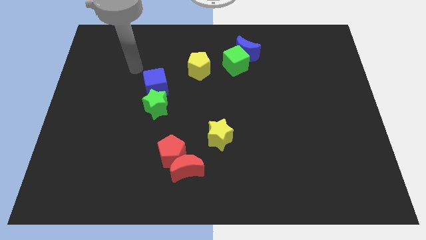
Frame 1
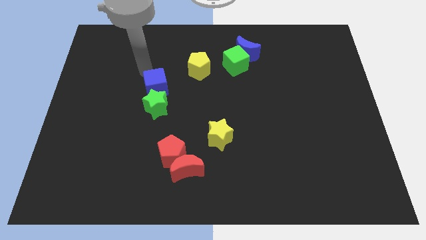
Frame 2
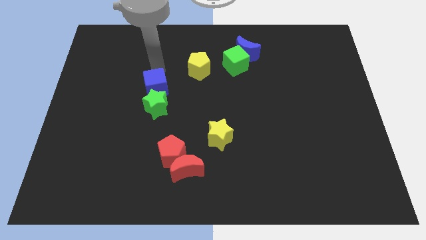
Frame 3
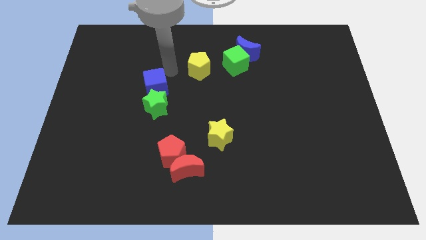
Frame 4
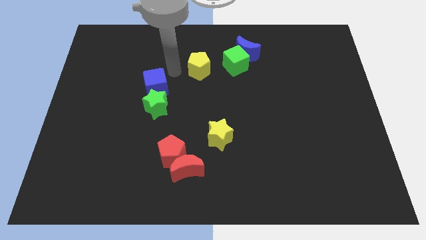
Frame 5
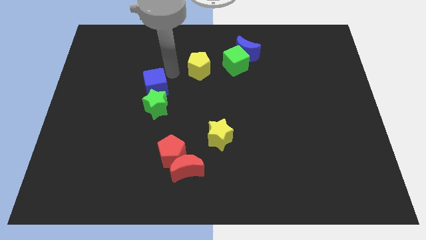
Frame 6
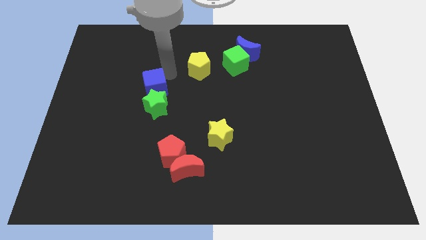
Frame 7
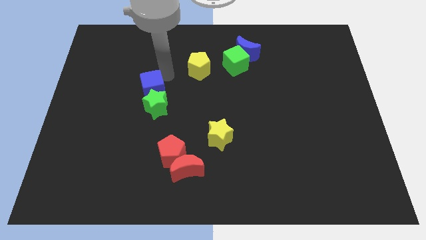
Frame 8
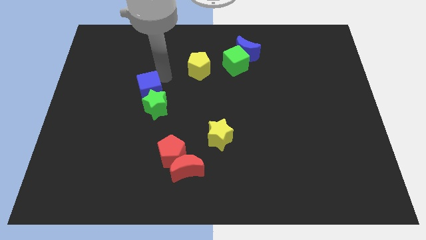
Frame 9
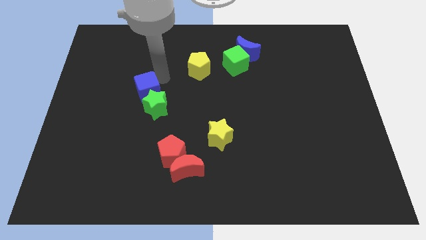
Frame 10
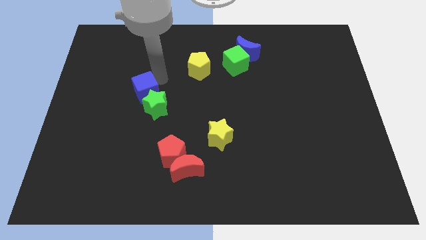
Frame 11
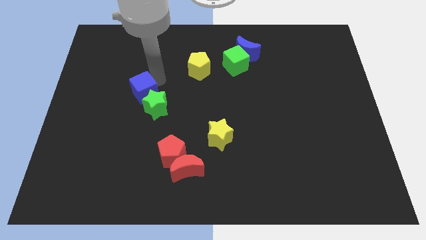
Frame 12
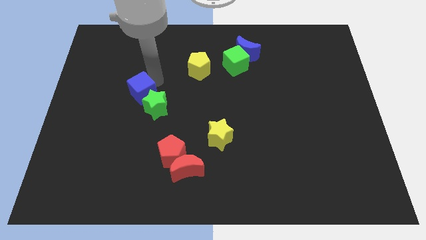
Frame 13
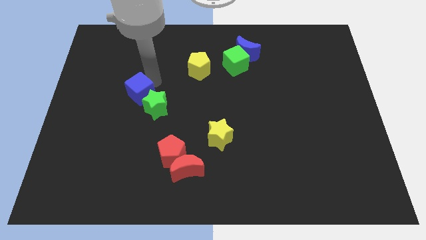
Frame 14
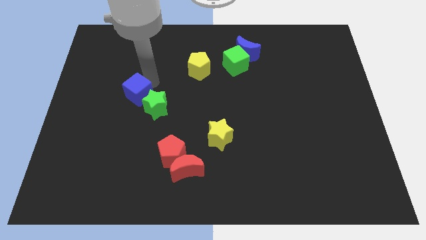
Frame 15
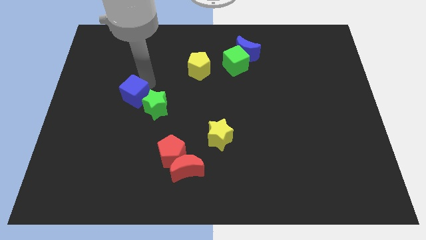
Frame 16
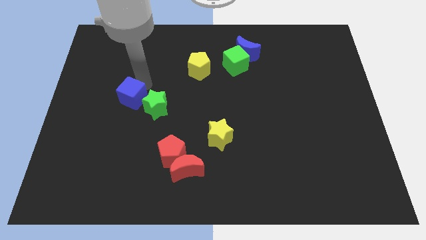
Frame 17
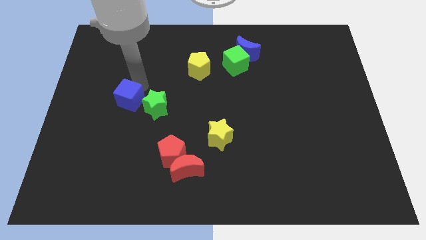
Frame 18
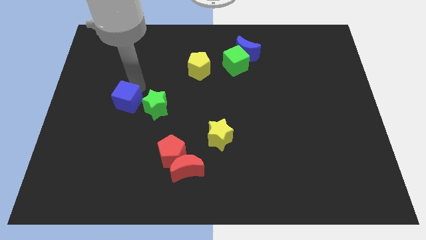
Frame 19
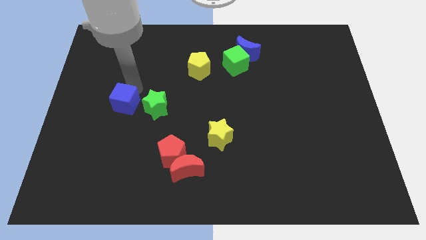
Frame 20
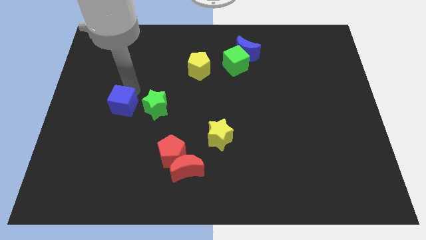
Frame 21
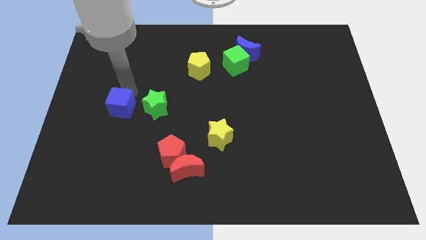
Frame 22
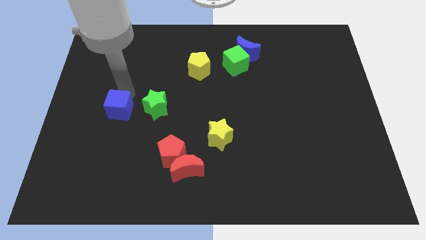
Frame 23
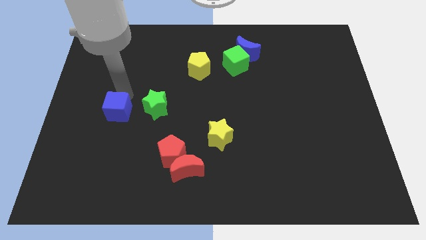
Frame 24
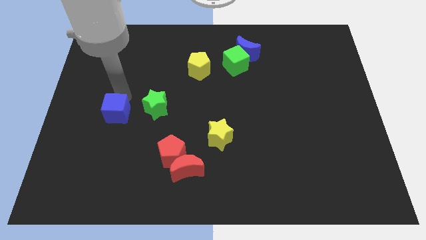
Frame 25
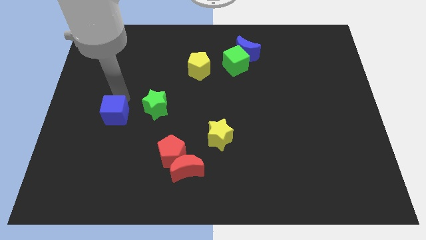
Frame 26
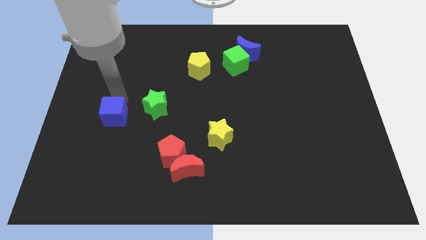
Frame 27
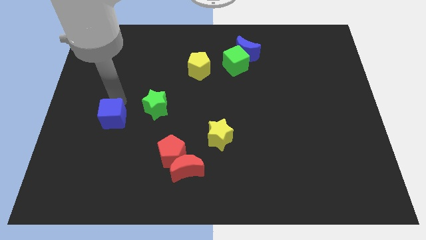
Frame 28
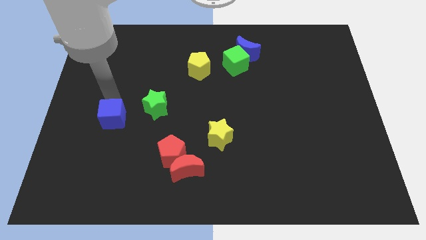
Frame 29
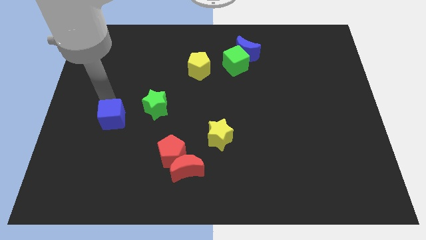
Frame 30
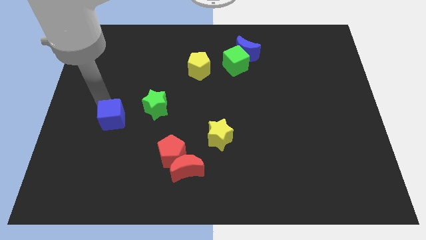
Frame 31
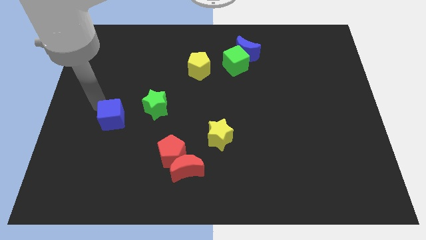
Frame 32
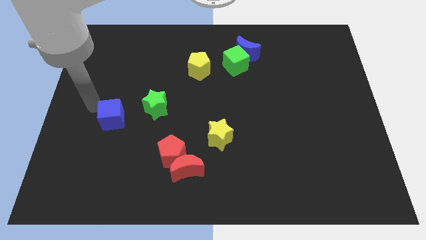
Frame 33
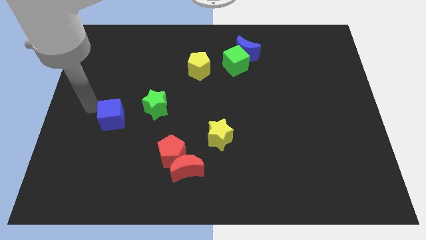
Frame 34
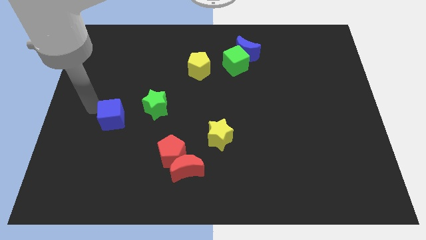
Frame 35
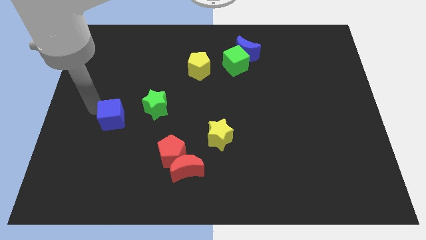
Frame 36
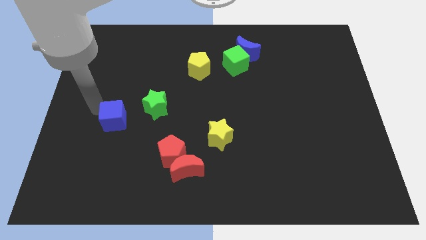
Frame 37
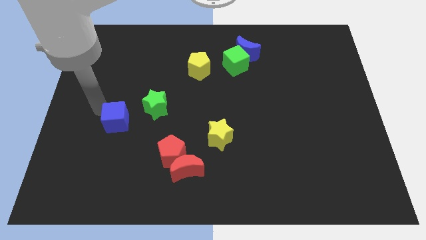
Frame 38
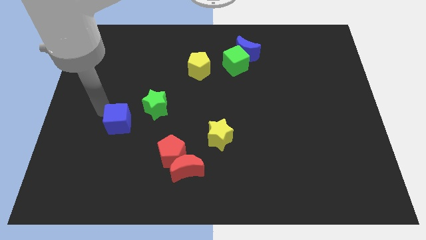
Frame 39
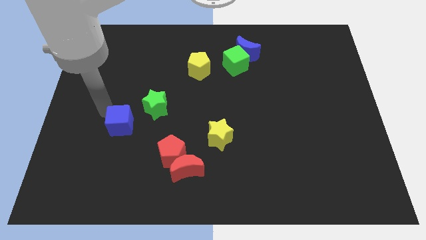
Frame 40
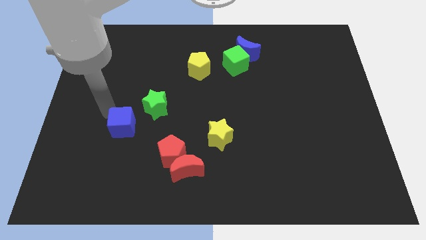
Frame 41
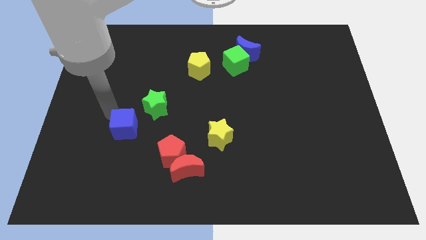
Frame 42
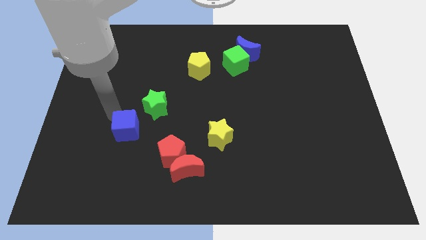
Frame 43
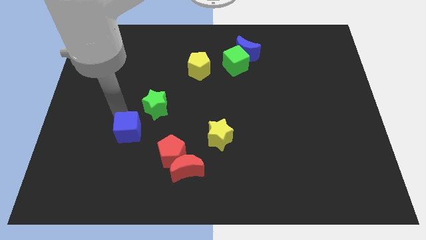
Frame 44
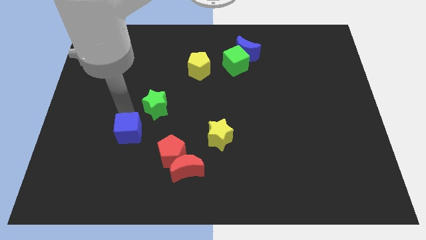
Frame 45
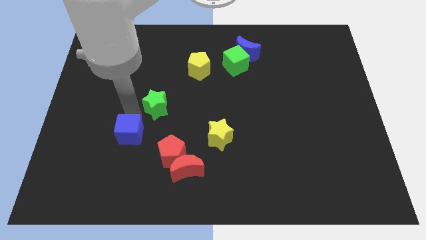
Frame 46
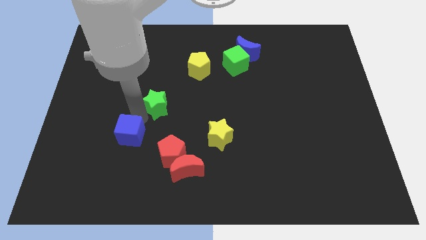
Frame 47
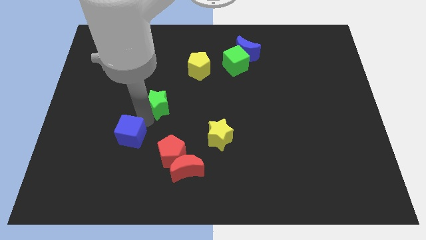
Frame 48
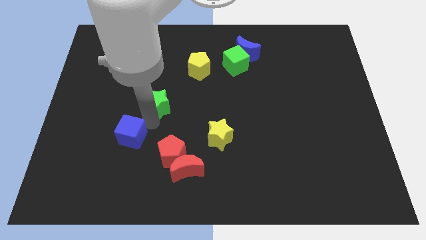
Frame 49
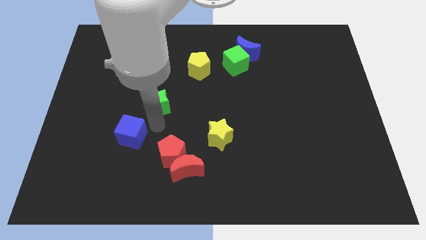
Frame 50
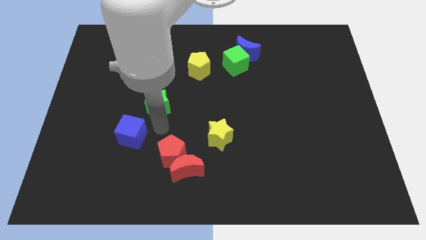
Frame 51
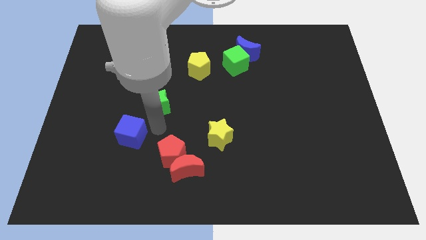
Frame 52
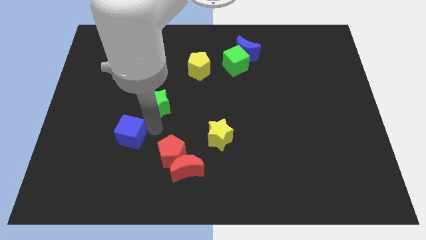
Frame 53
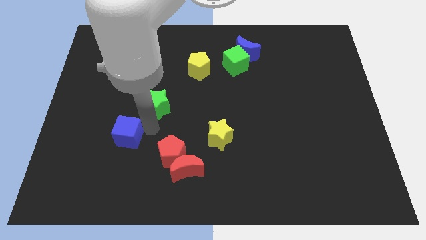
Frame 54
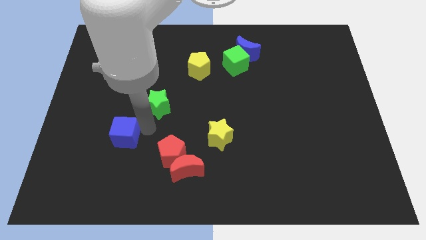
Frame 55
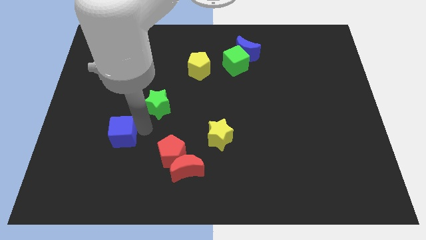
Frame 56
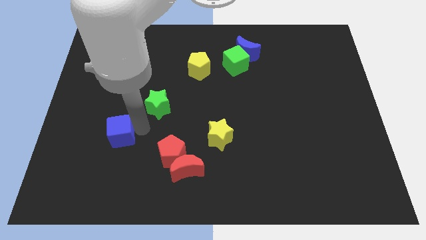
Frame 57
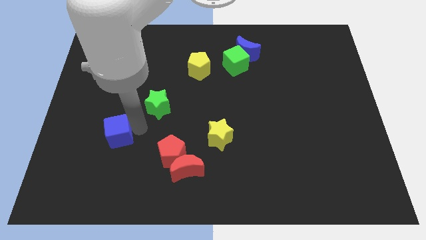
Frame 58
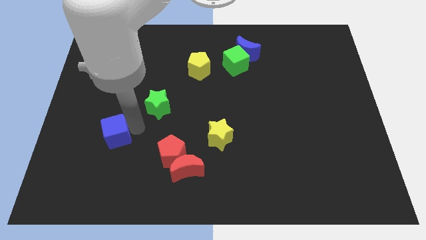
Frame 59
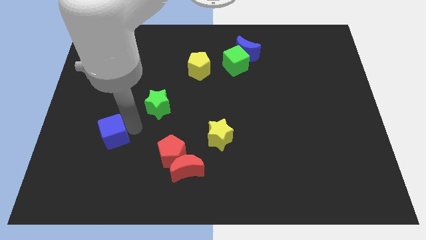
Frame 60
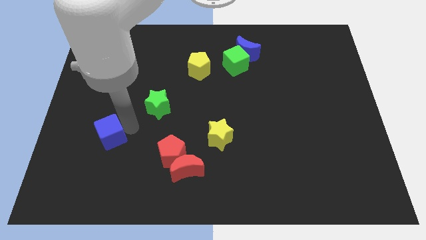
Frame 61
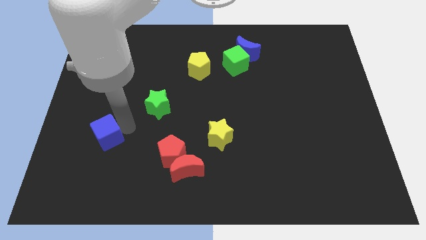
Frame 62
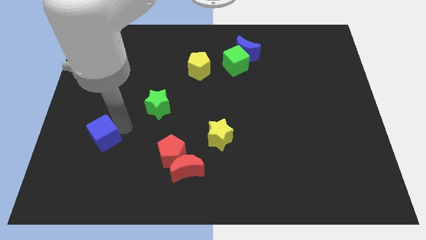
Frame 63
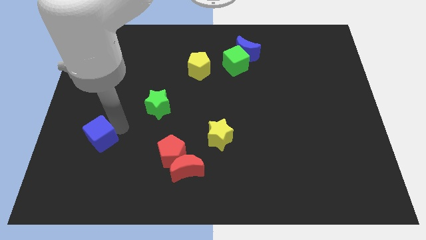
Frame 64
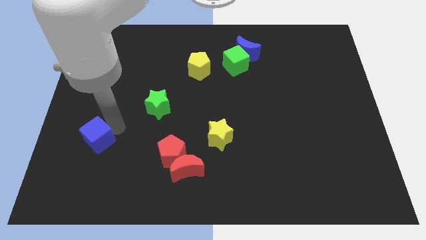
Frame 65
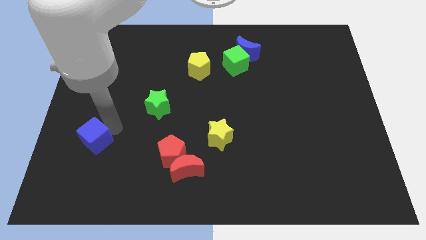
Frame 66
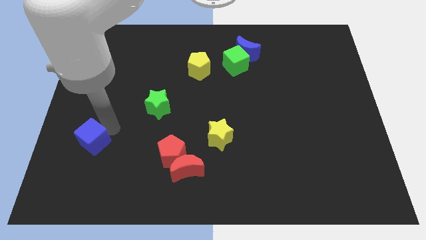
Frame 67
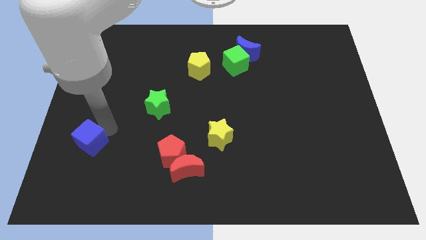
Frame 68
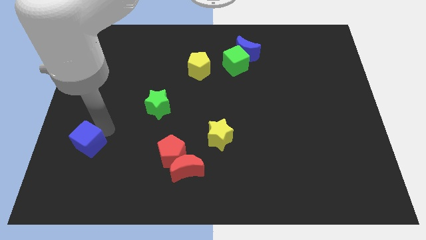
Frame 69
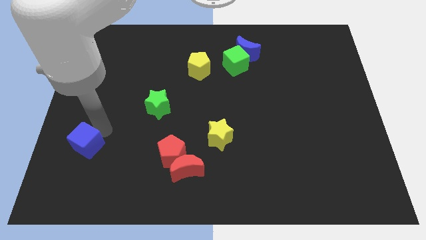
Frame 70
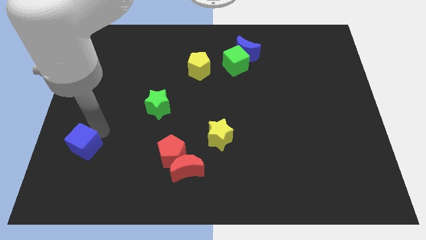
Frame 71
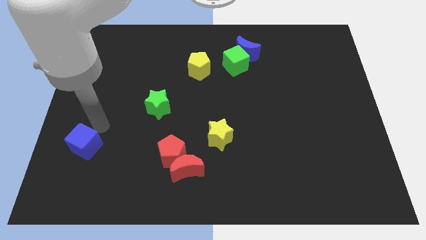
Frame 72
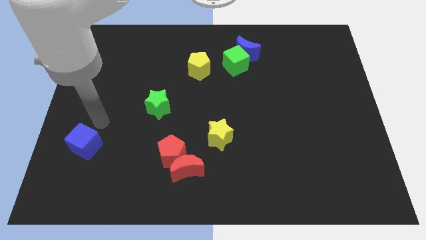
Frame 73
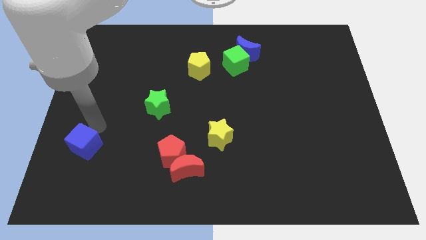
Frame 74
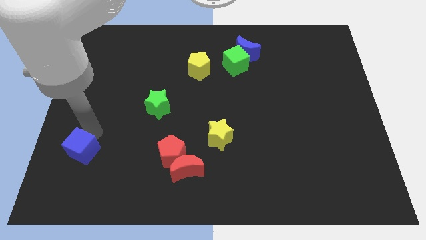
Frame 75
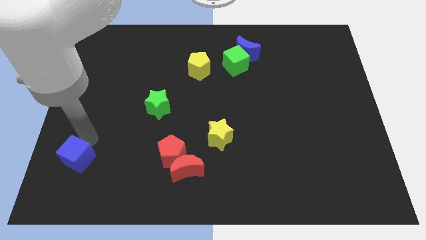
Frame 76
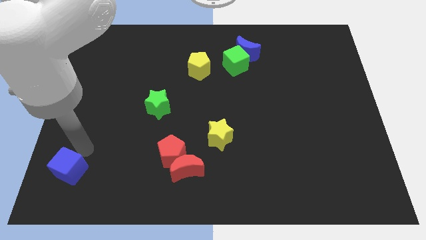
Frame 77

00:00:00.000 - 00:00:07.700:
slide the blue cube to the bottom left of the board
